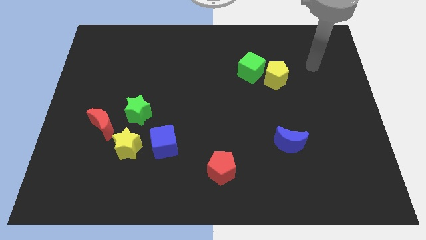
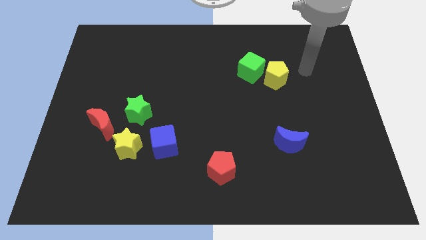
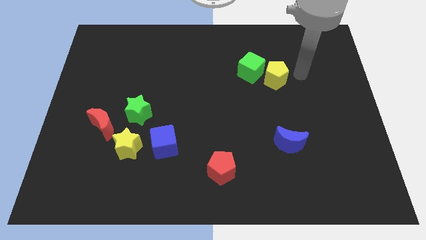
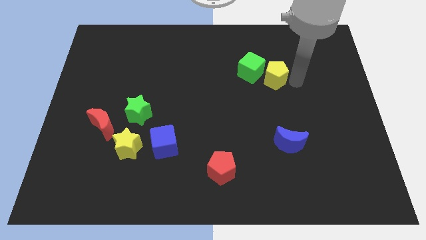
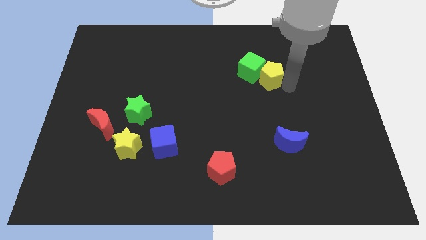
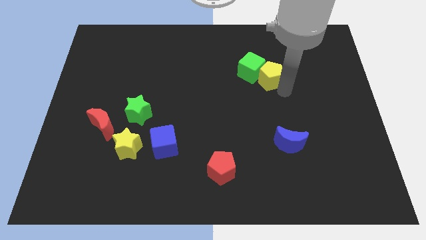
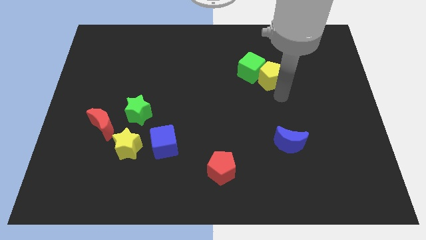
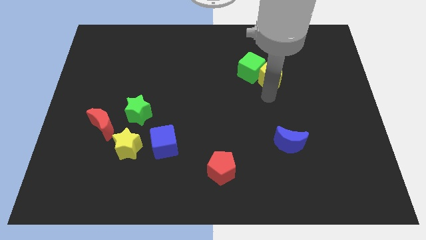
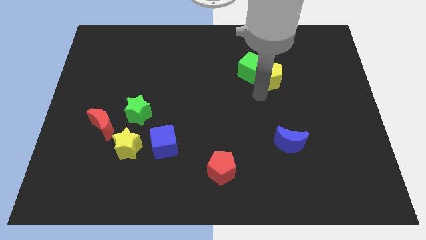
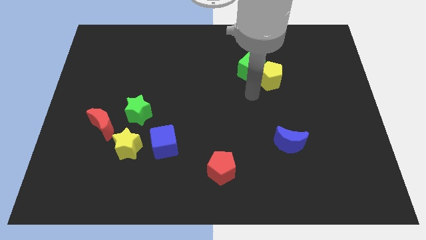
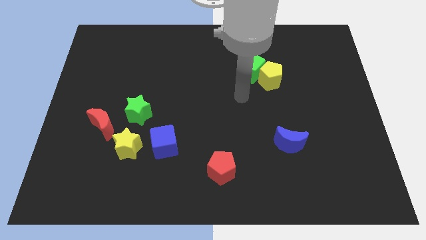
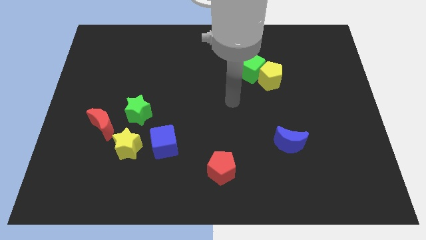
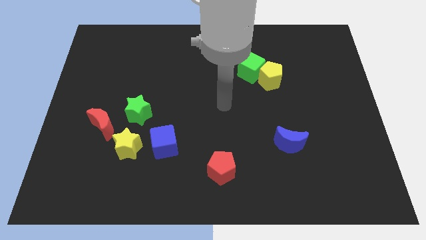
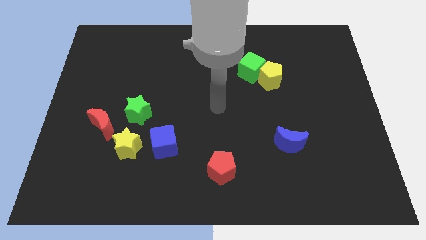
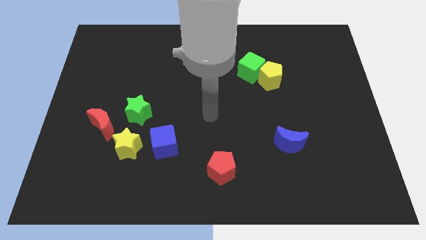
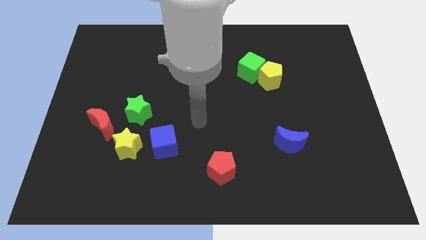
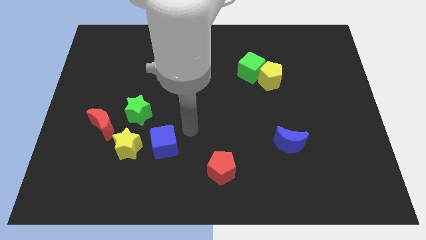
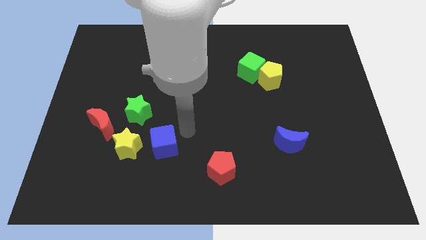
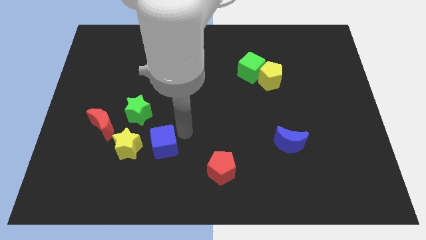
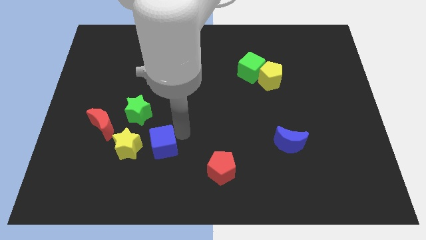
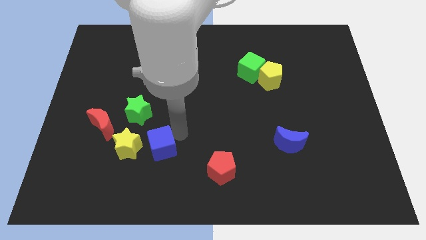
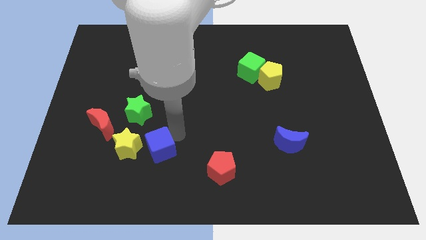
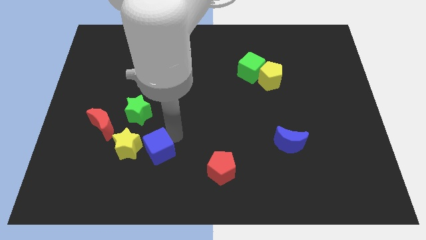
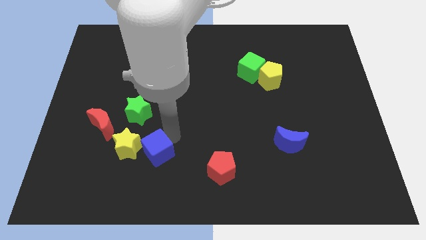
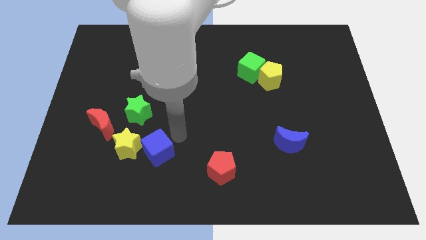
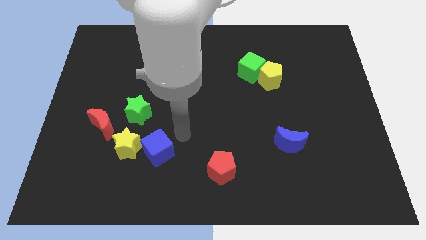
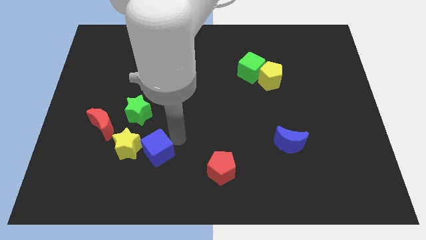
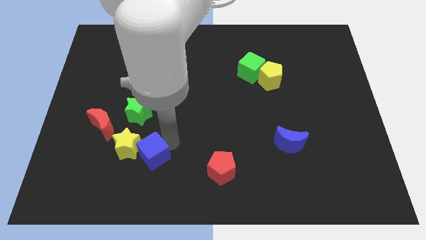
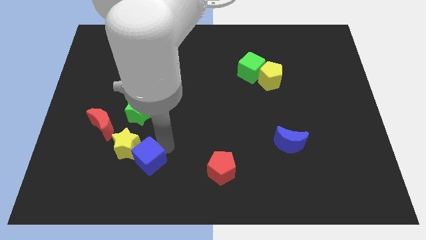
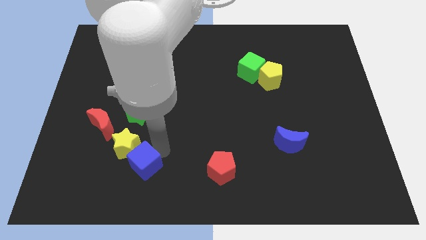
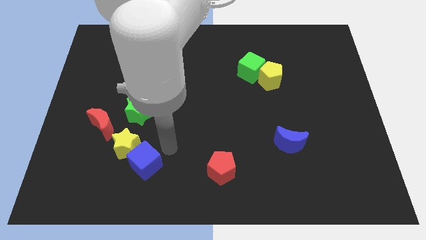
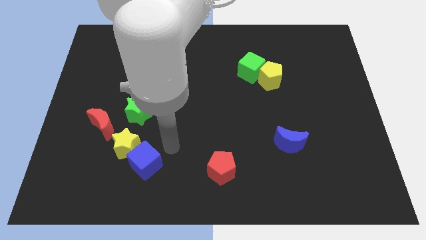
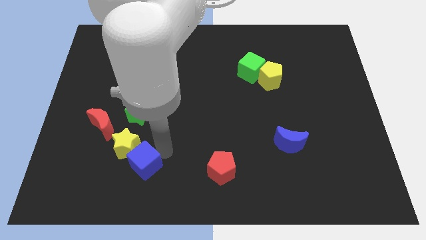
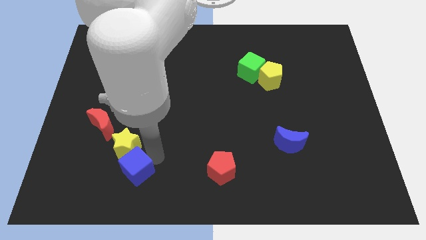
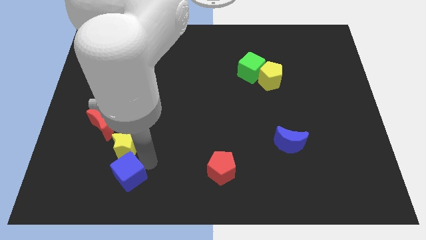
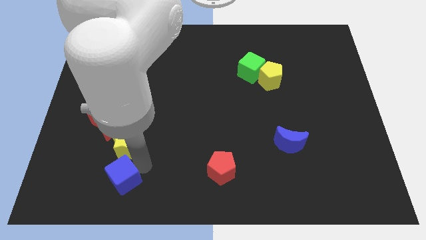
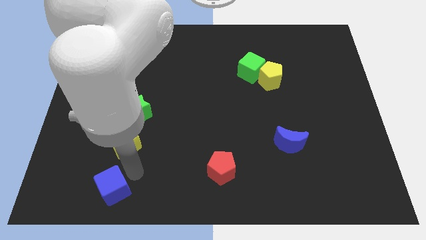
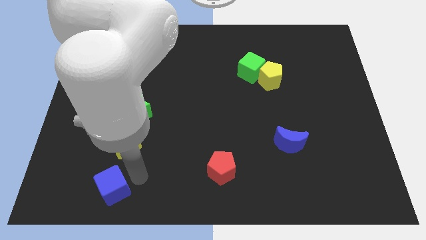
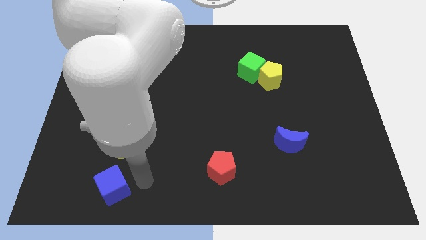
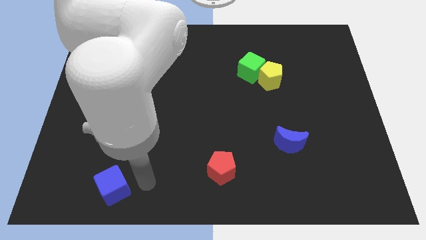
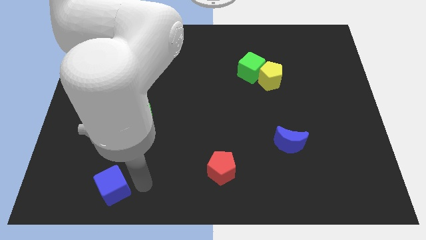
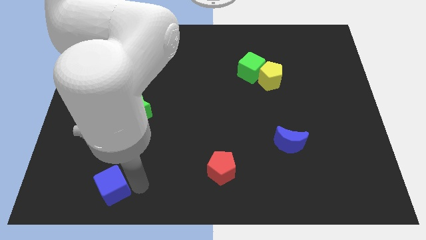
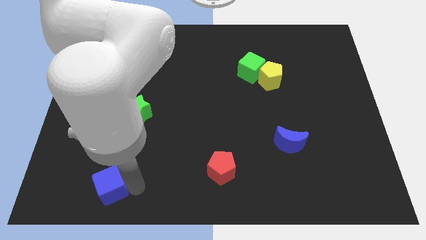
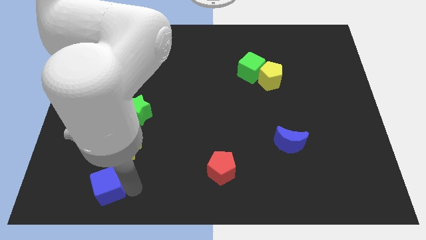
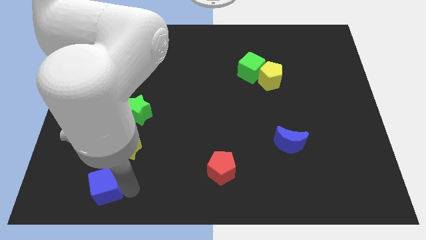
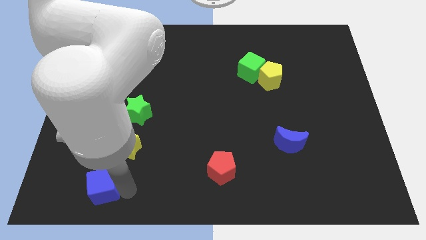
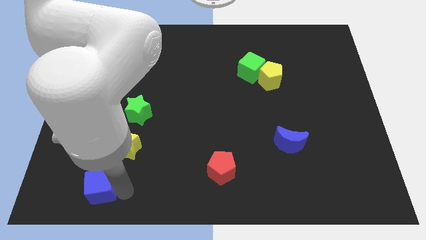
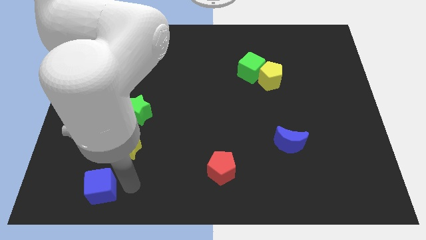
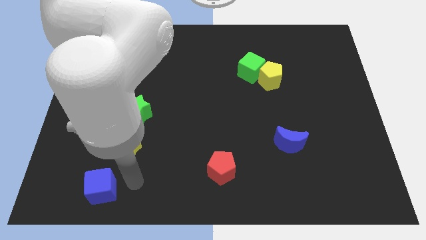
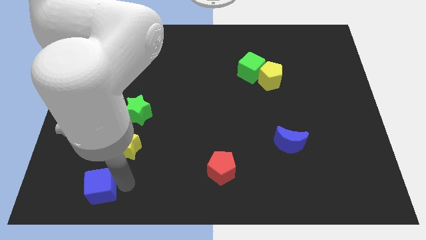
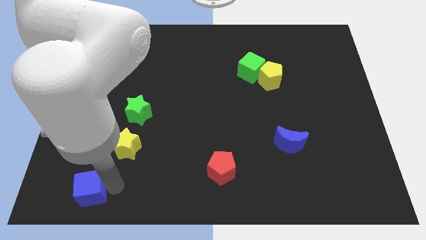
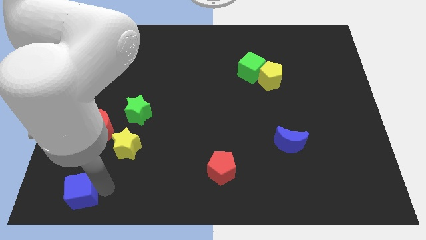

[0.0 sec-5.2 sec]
slide the blue cube to the bottom left of the board

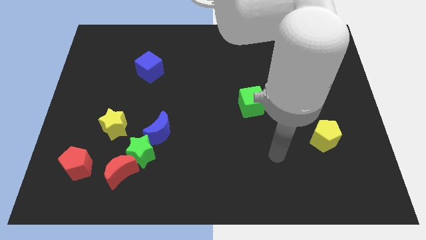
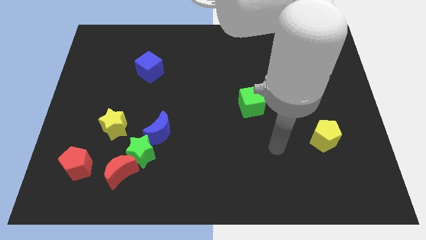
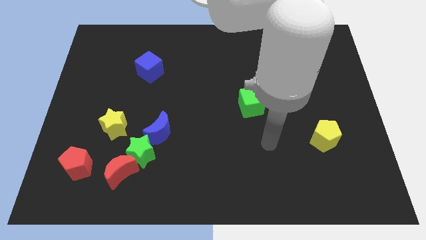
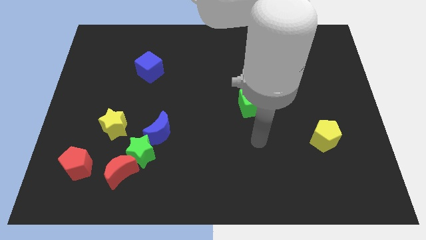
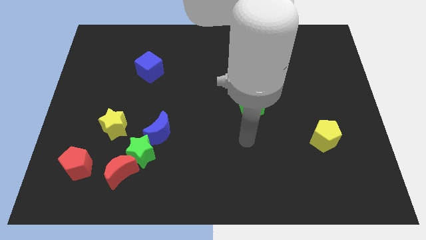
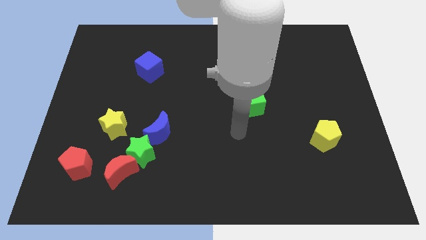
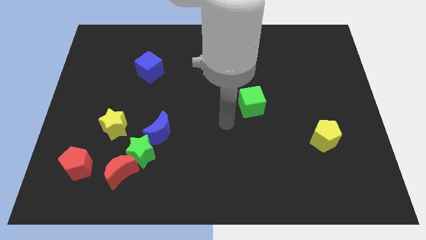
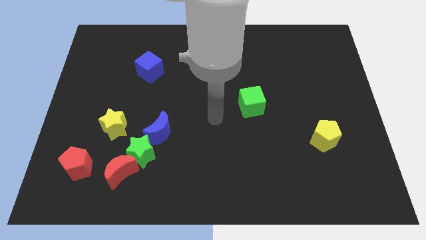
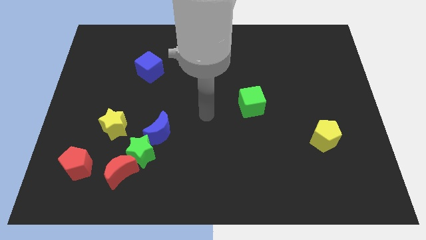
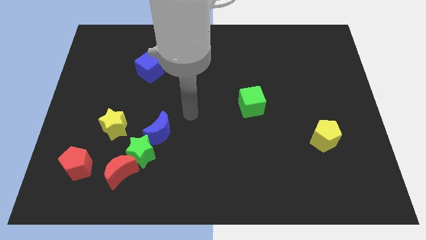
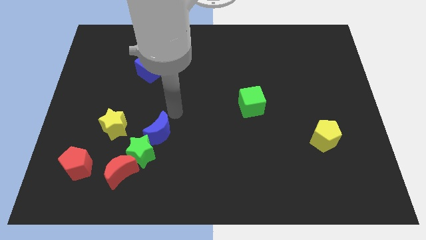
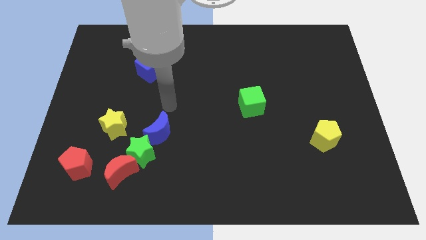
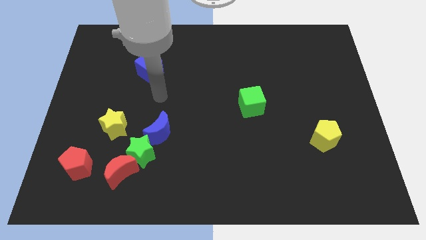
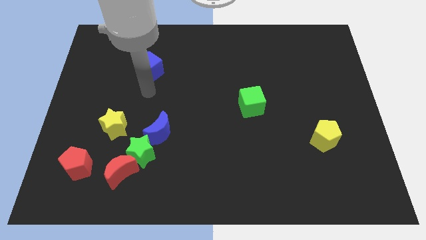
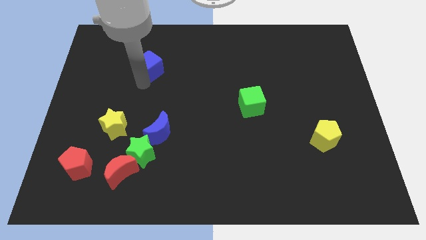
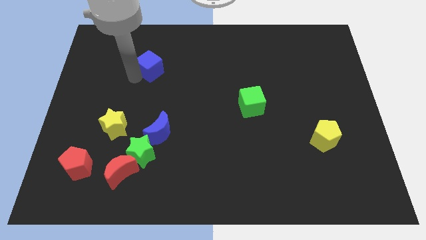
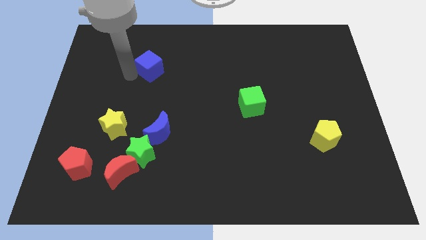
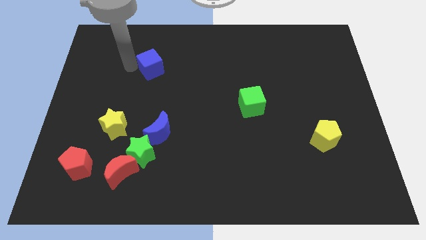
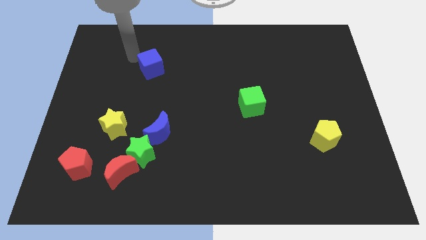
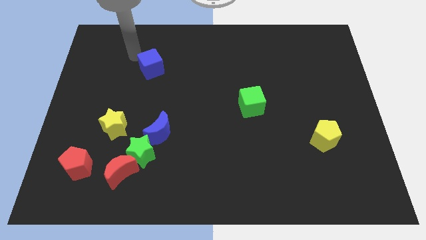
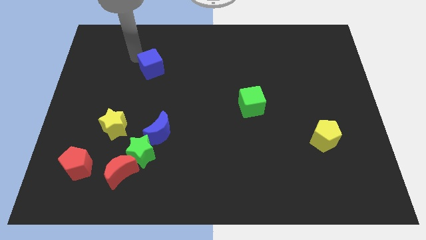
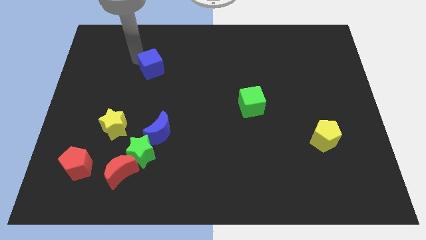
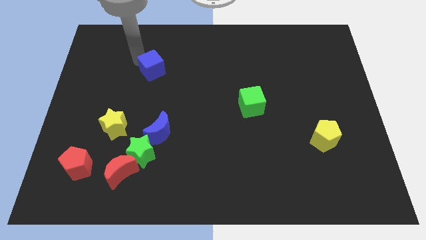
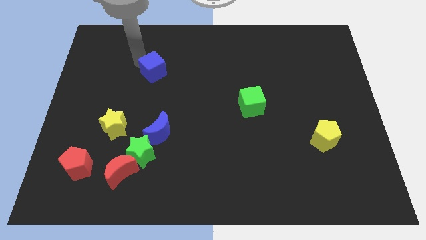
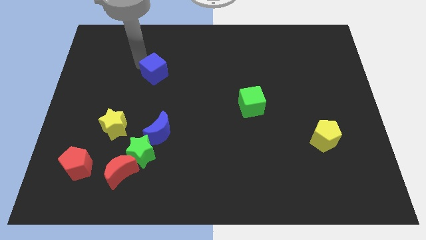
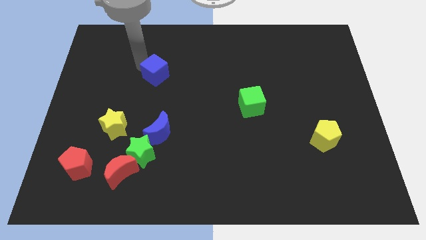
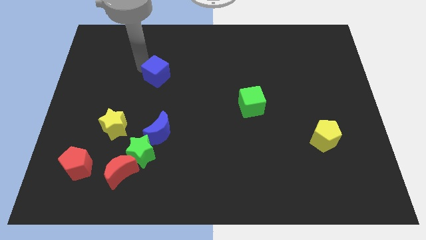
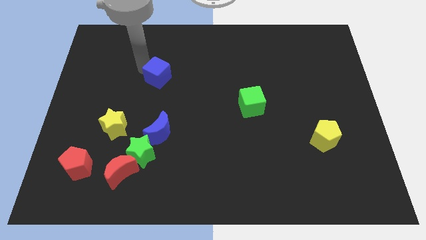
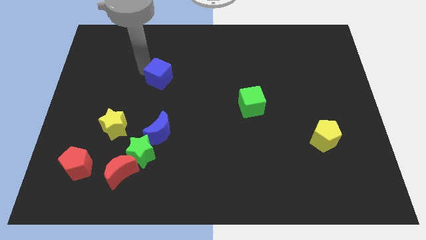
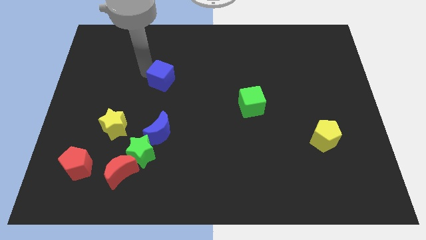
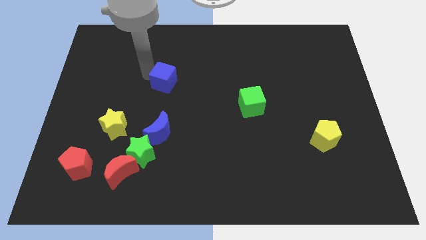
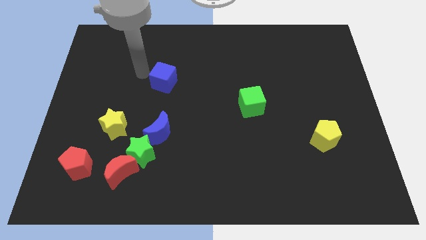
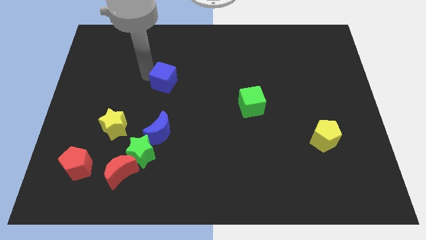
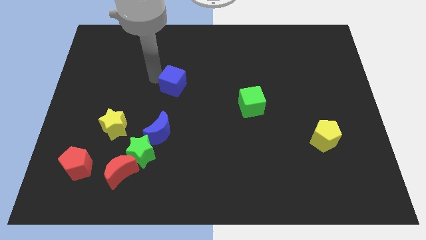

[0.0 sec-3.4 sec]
move the blue cube to the middle
